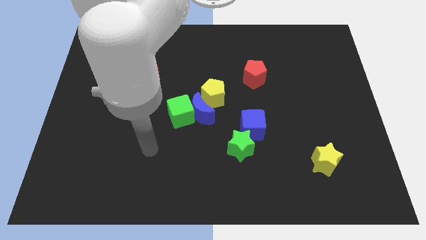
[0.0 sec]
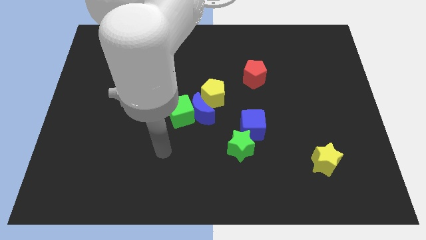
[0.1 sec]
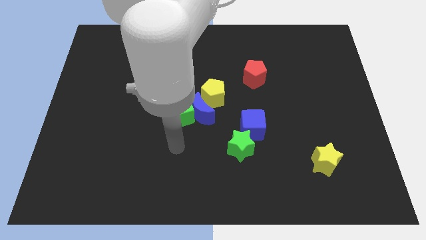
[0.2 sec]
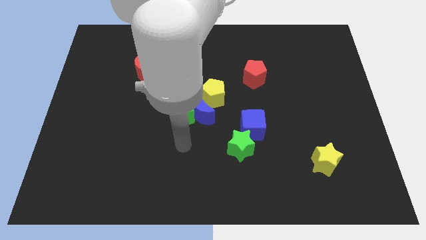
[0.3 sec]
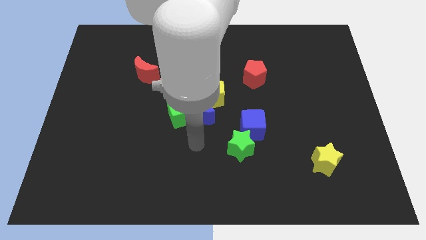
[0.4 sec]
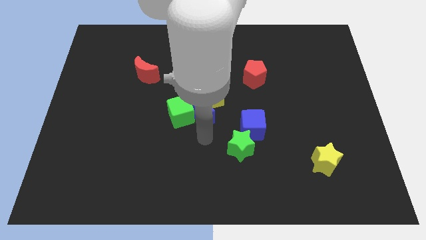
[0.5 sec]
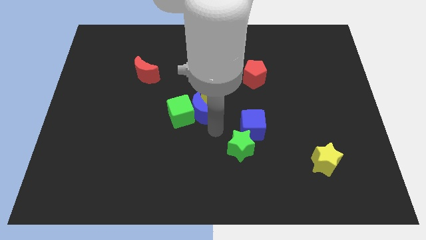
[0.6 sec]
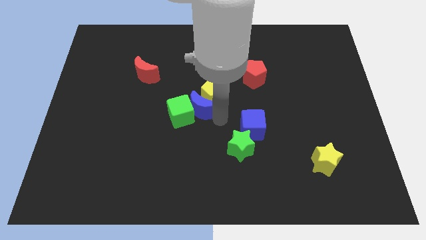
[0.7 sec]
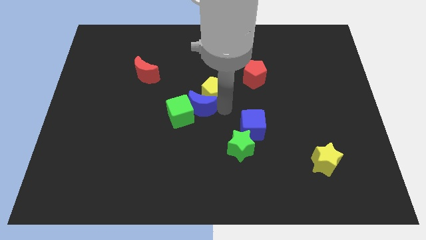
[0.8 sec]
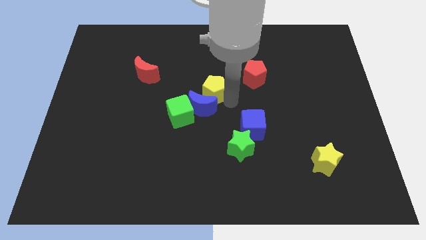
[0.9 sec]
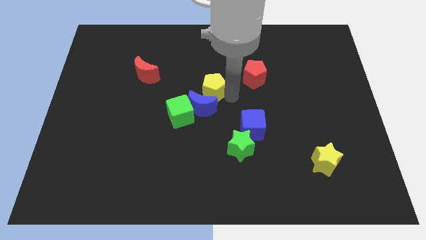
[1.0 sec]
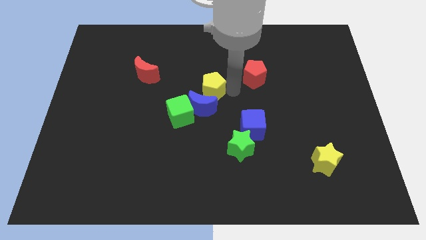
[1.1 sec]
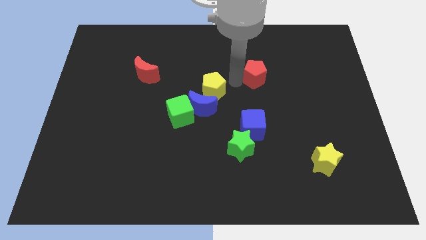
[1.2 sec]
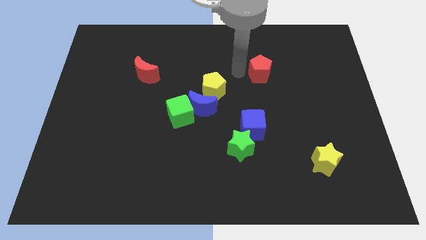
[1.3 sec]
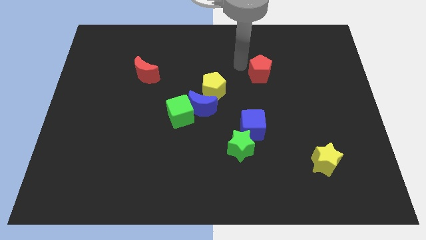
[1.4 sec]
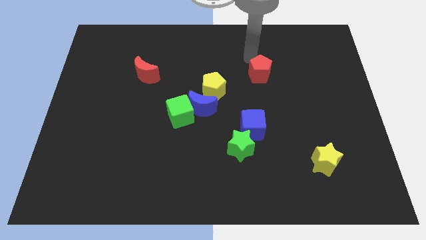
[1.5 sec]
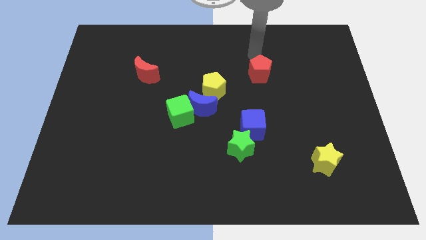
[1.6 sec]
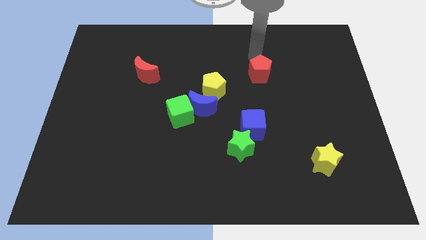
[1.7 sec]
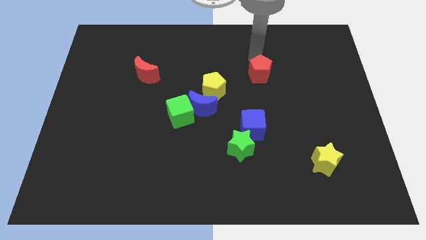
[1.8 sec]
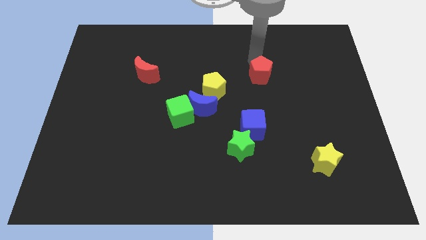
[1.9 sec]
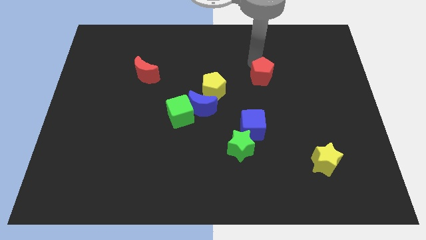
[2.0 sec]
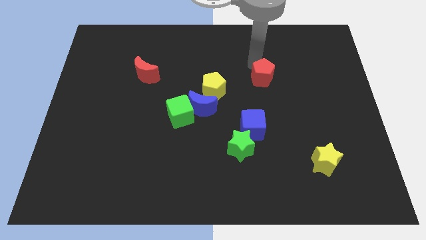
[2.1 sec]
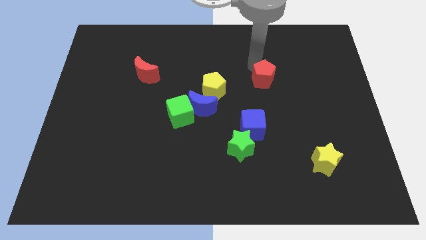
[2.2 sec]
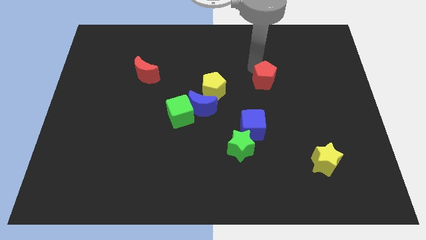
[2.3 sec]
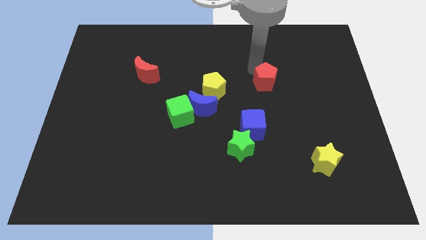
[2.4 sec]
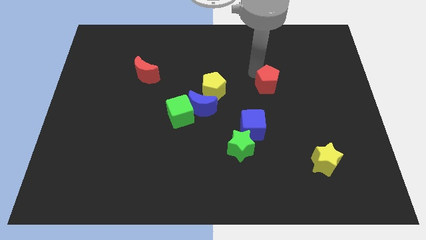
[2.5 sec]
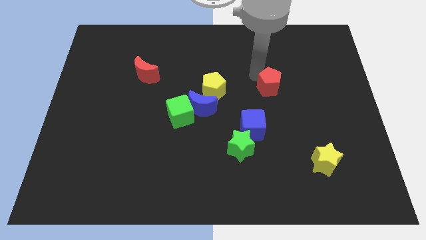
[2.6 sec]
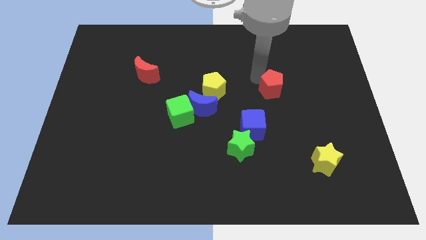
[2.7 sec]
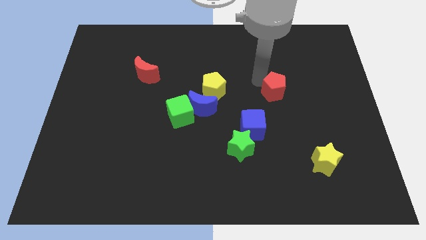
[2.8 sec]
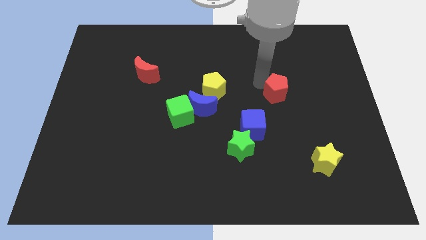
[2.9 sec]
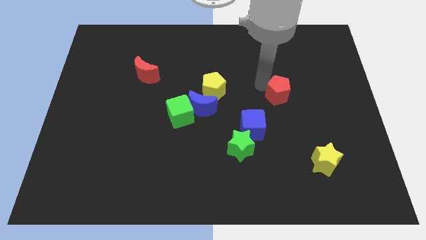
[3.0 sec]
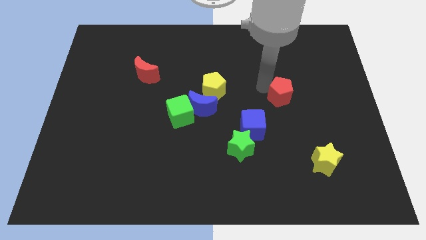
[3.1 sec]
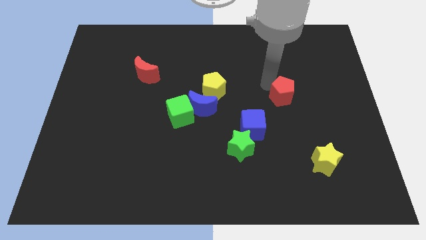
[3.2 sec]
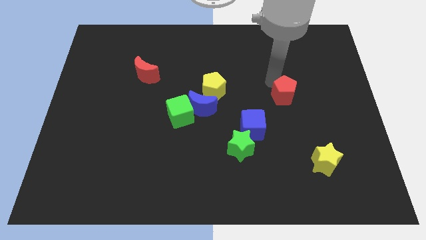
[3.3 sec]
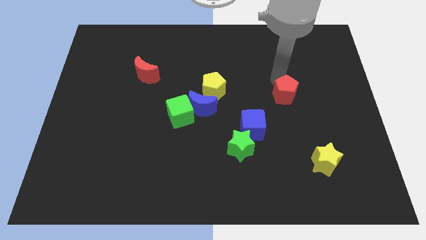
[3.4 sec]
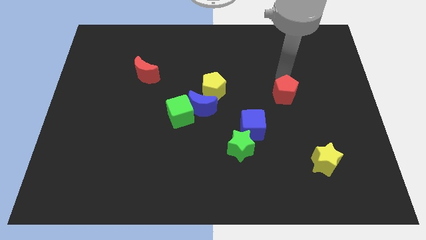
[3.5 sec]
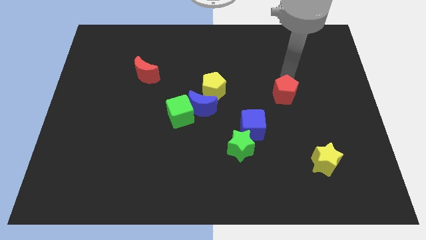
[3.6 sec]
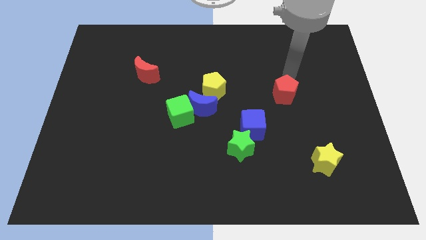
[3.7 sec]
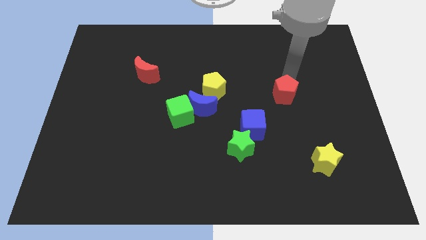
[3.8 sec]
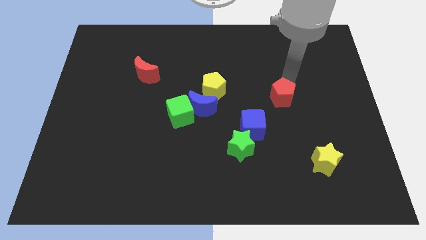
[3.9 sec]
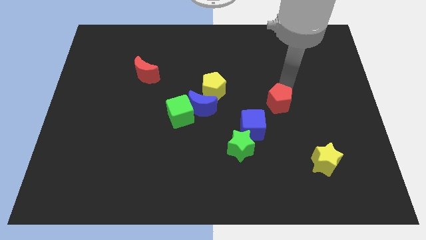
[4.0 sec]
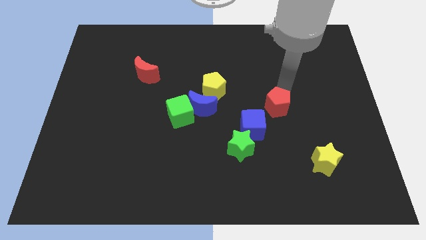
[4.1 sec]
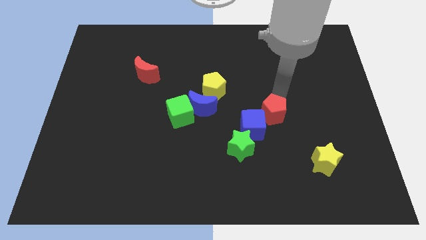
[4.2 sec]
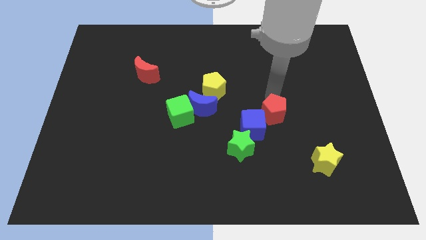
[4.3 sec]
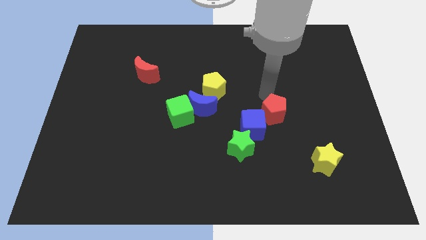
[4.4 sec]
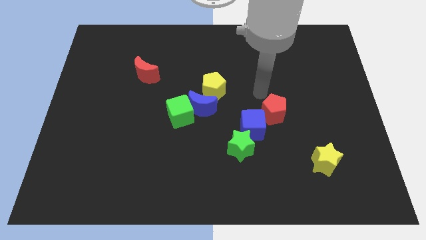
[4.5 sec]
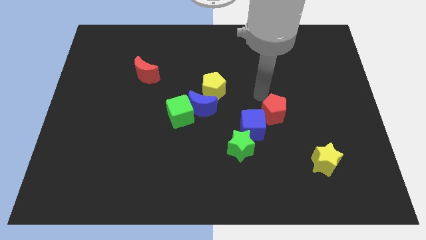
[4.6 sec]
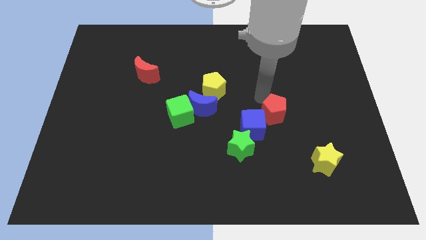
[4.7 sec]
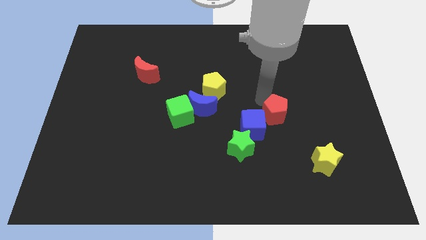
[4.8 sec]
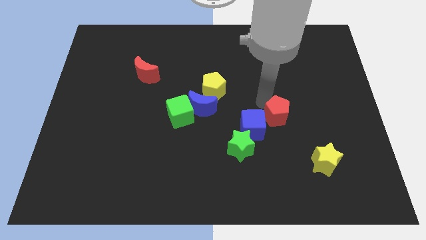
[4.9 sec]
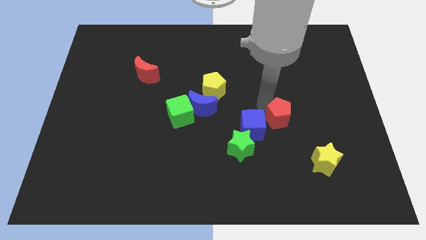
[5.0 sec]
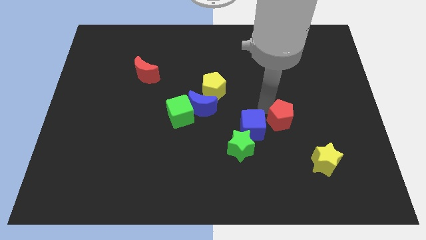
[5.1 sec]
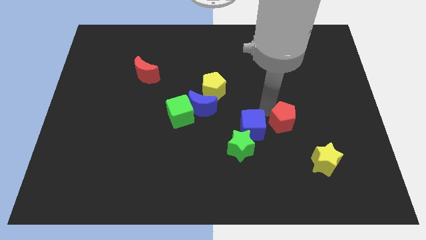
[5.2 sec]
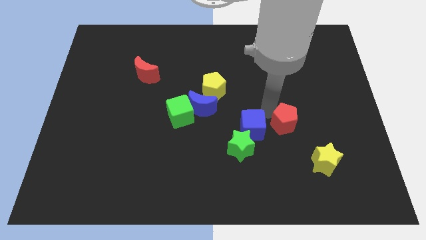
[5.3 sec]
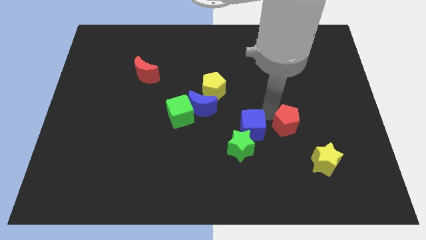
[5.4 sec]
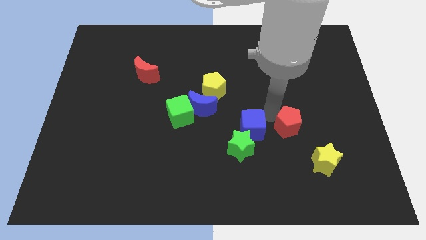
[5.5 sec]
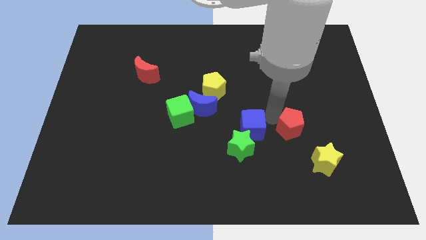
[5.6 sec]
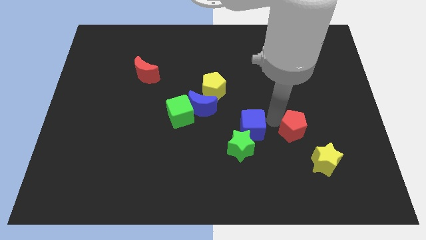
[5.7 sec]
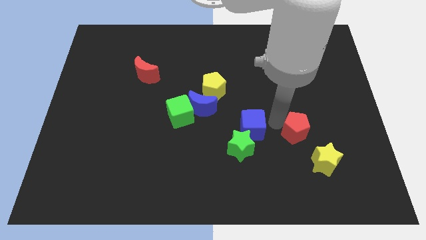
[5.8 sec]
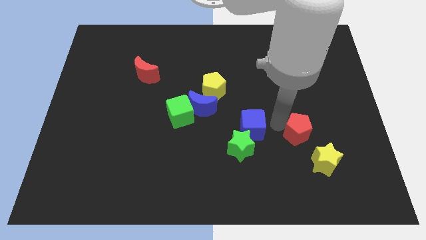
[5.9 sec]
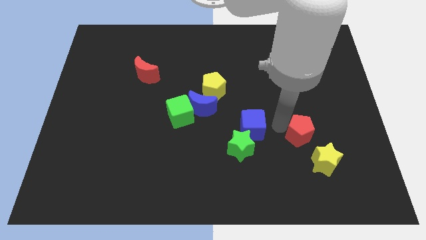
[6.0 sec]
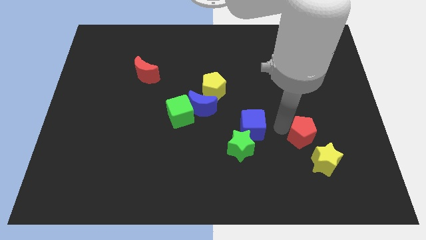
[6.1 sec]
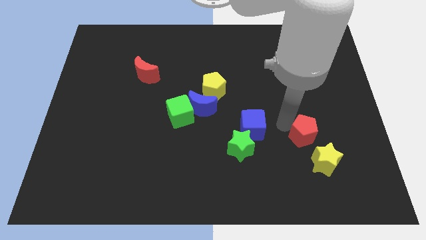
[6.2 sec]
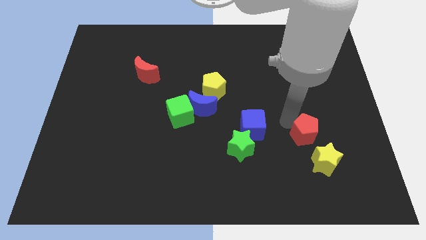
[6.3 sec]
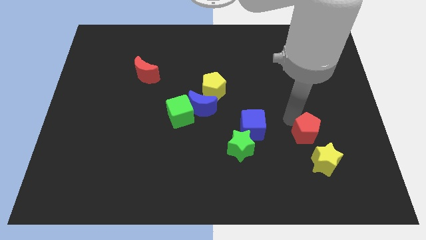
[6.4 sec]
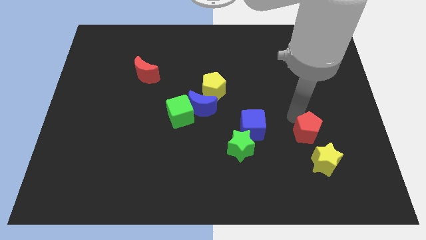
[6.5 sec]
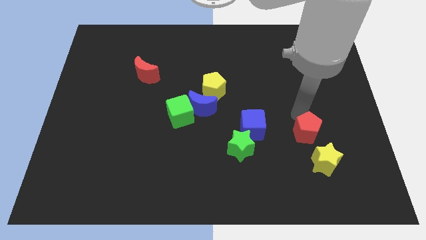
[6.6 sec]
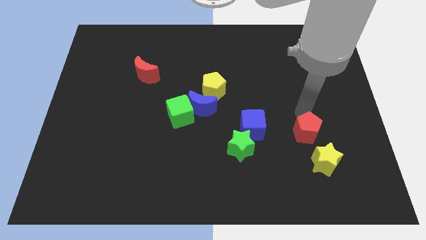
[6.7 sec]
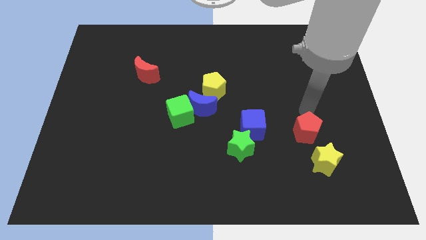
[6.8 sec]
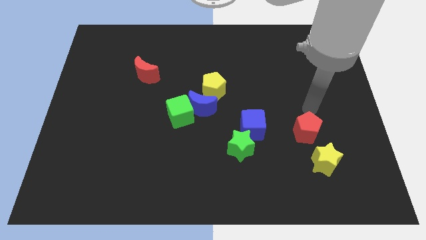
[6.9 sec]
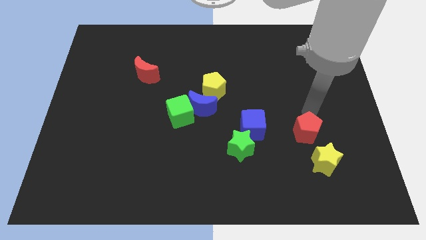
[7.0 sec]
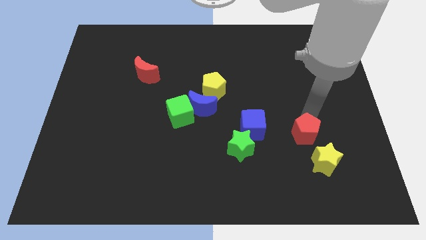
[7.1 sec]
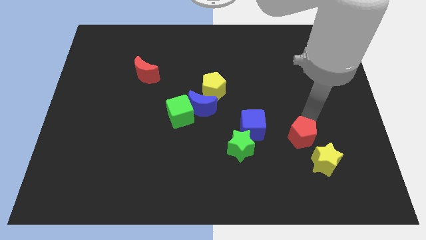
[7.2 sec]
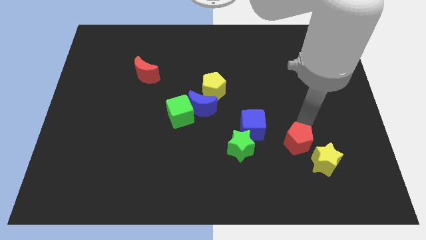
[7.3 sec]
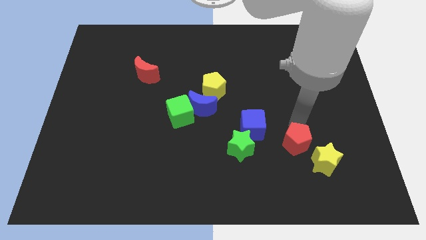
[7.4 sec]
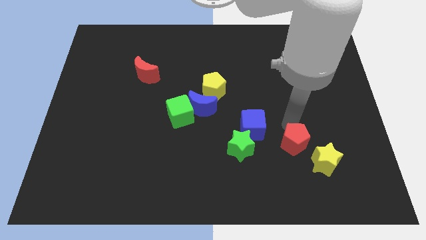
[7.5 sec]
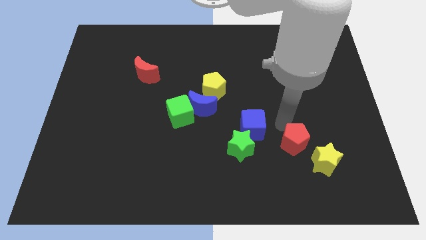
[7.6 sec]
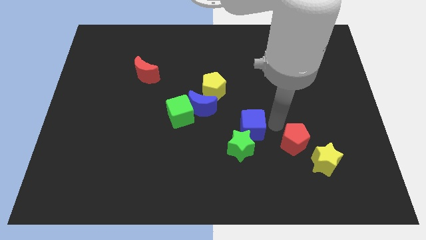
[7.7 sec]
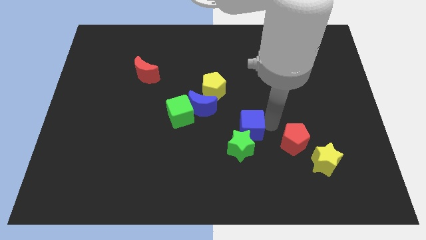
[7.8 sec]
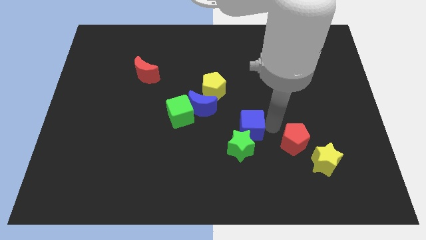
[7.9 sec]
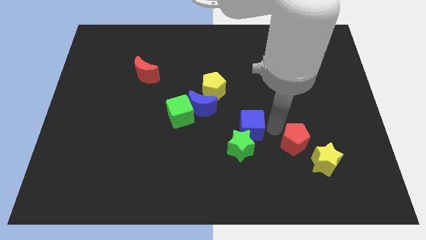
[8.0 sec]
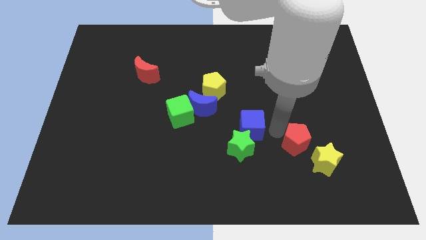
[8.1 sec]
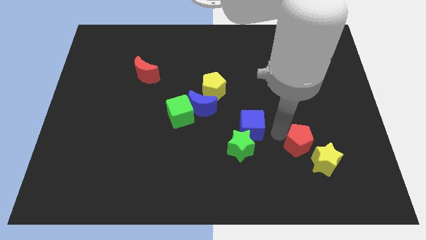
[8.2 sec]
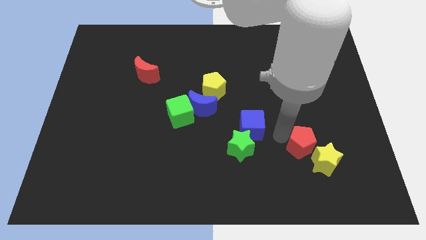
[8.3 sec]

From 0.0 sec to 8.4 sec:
put the red pentagon next to the yellow star
